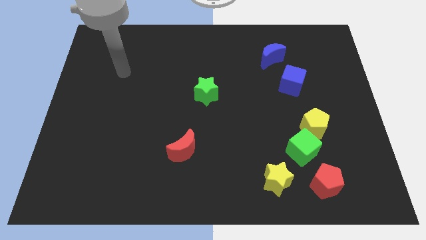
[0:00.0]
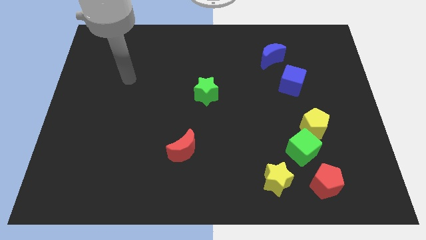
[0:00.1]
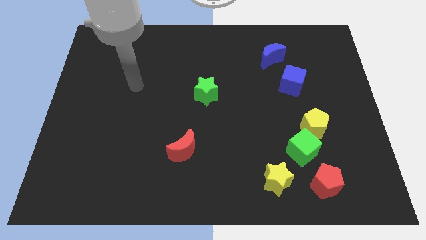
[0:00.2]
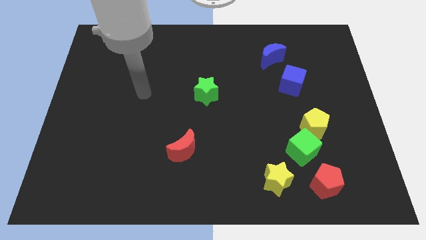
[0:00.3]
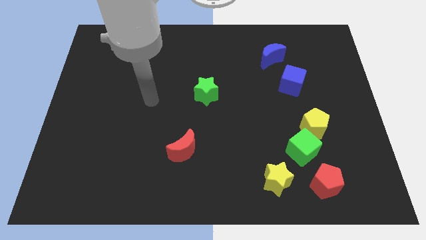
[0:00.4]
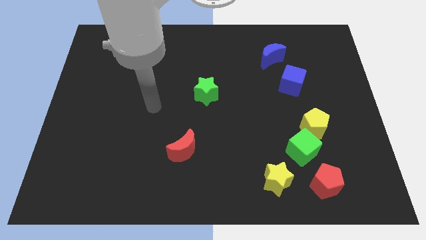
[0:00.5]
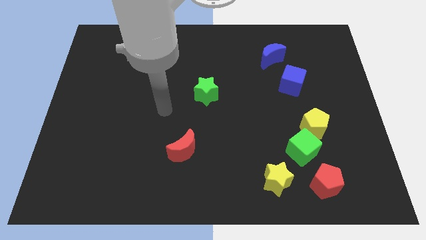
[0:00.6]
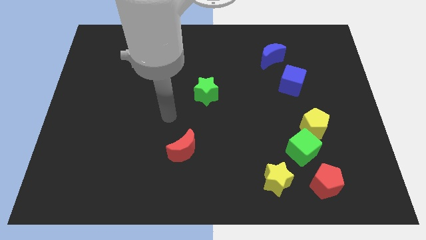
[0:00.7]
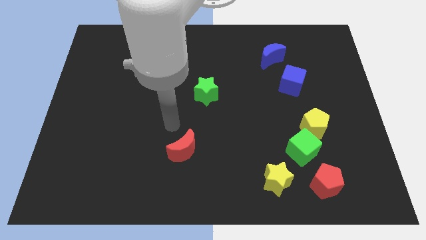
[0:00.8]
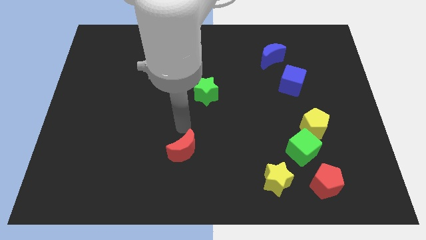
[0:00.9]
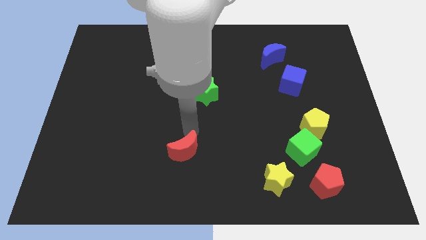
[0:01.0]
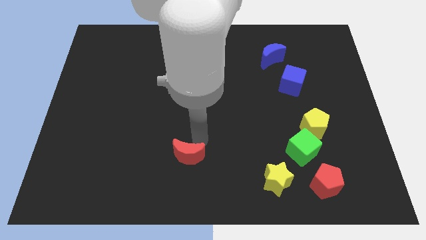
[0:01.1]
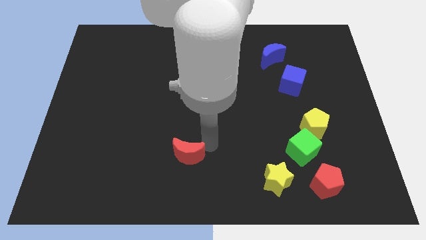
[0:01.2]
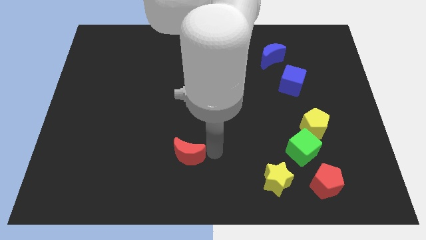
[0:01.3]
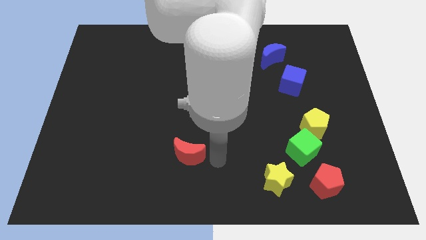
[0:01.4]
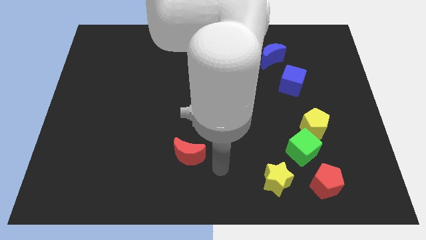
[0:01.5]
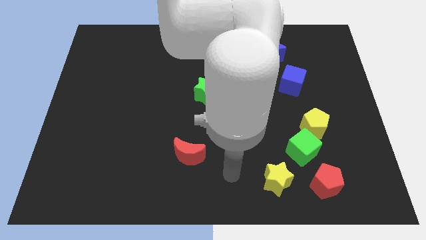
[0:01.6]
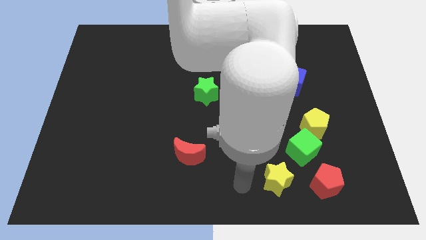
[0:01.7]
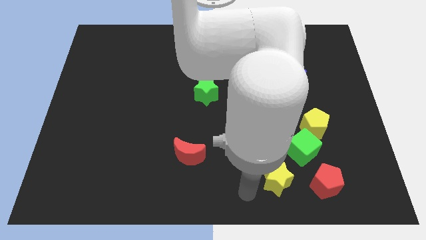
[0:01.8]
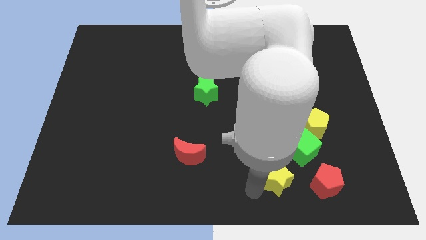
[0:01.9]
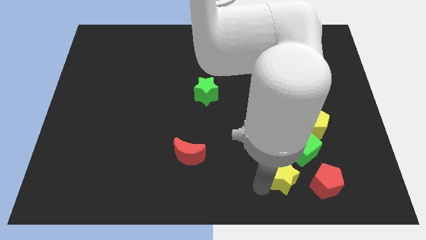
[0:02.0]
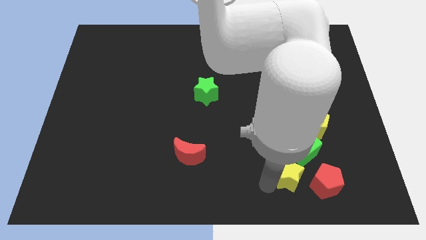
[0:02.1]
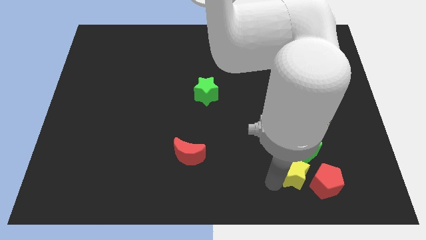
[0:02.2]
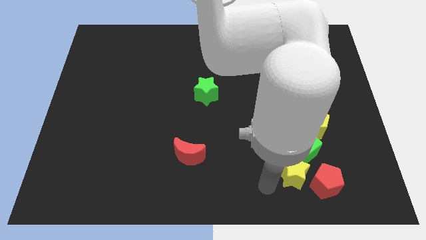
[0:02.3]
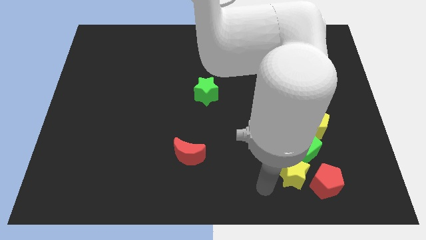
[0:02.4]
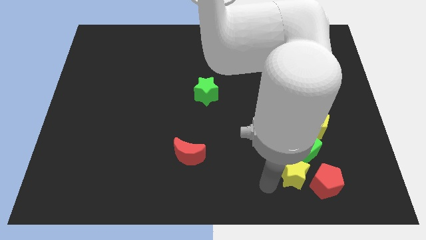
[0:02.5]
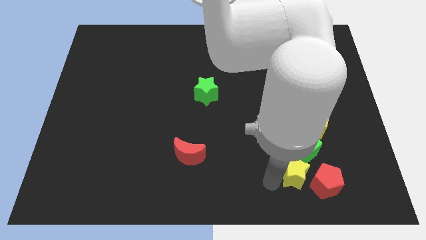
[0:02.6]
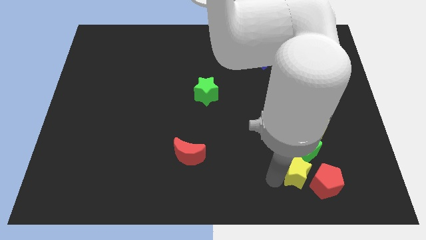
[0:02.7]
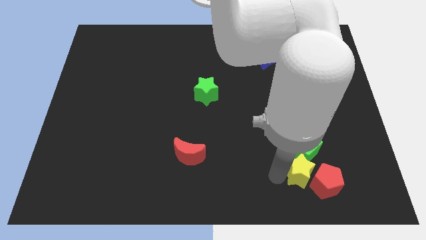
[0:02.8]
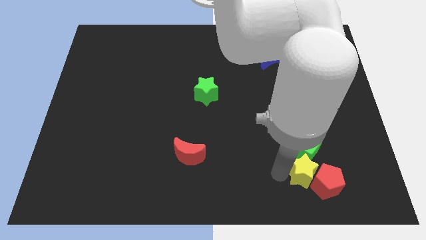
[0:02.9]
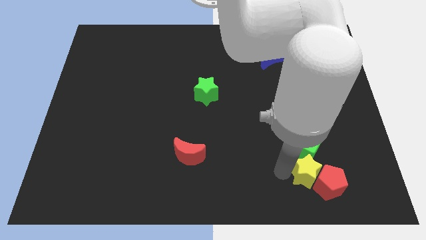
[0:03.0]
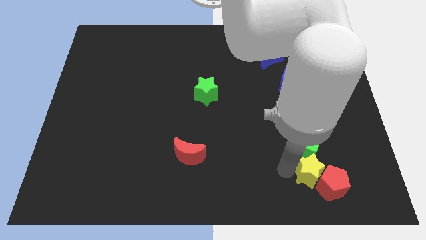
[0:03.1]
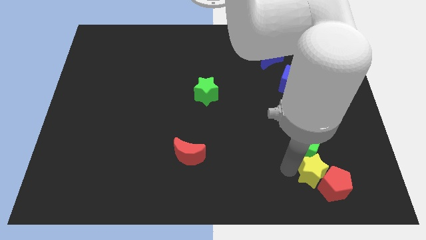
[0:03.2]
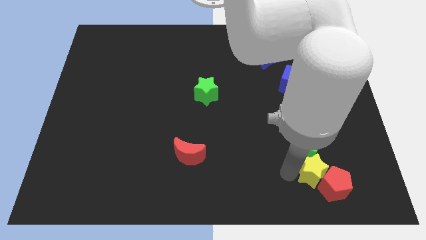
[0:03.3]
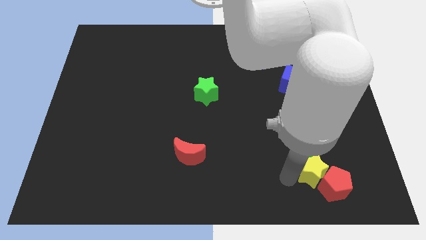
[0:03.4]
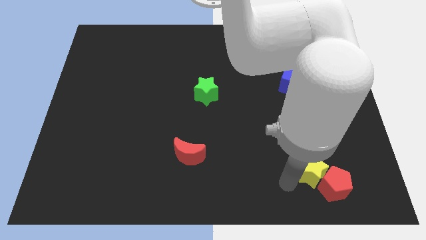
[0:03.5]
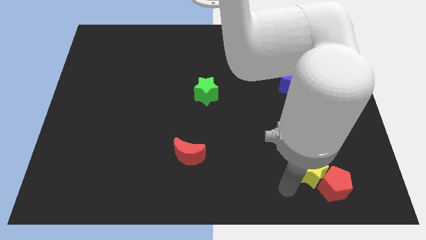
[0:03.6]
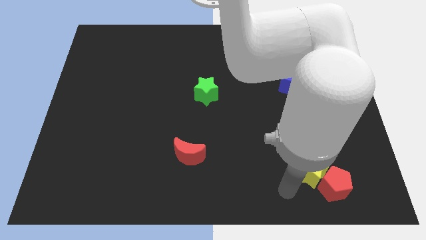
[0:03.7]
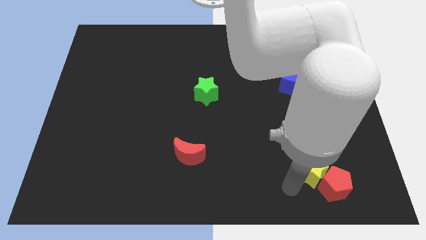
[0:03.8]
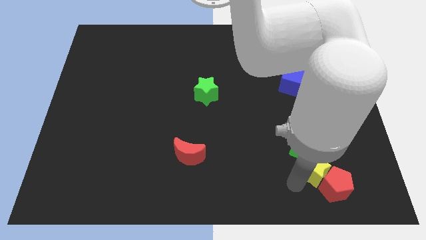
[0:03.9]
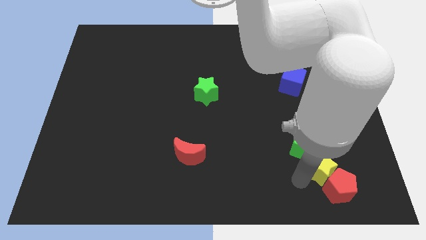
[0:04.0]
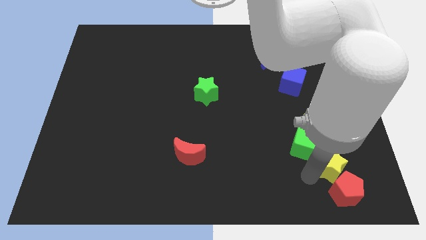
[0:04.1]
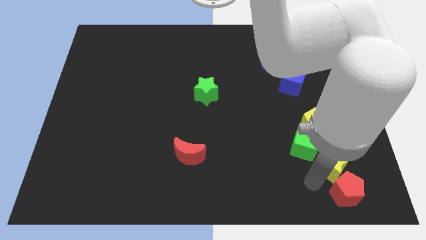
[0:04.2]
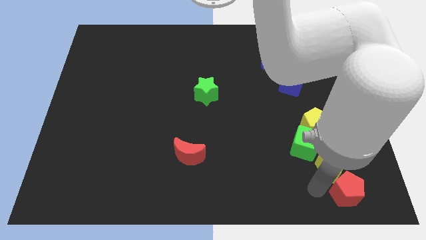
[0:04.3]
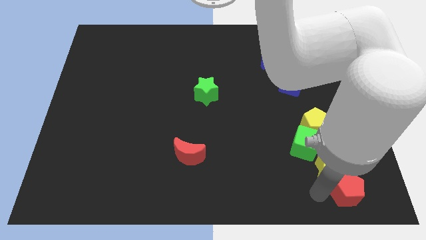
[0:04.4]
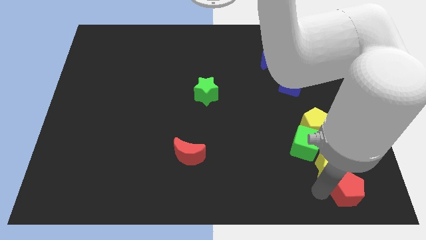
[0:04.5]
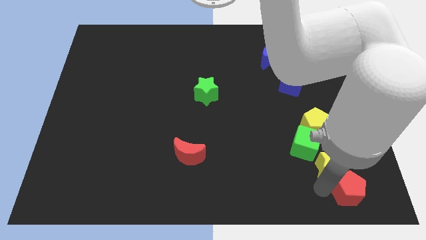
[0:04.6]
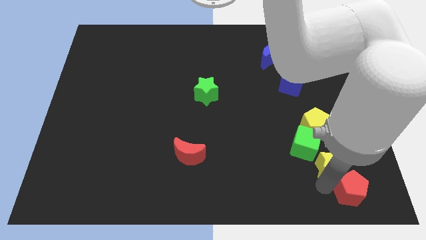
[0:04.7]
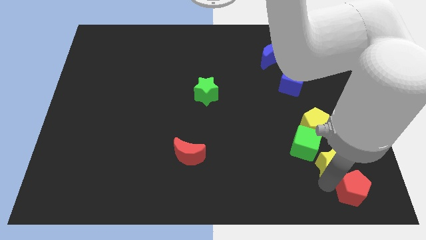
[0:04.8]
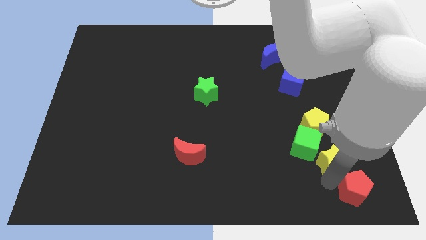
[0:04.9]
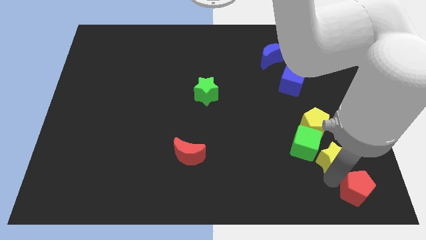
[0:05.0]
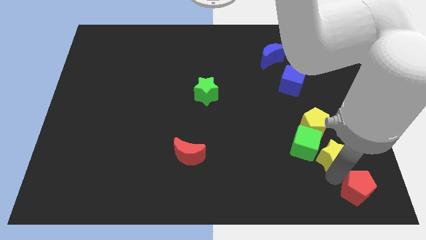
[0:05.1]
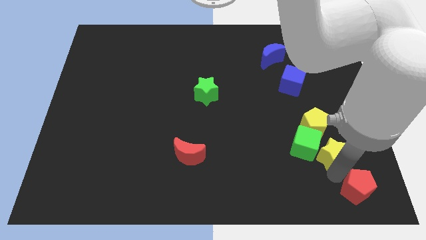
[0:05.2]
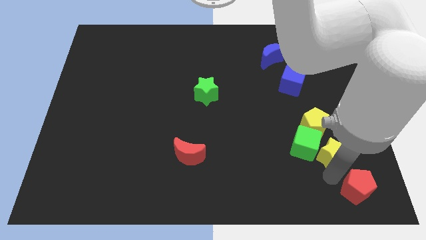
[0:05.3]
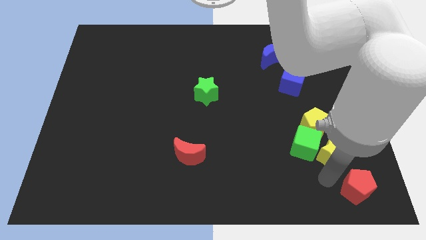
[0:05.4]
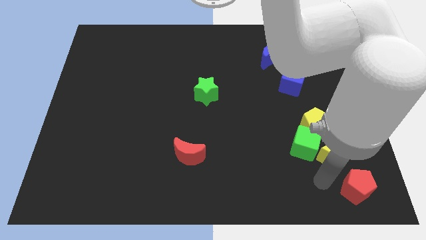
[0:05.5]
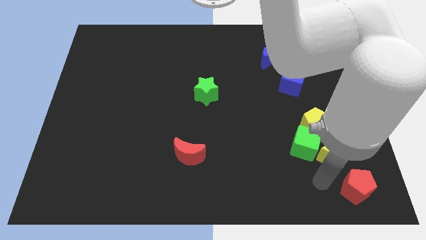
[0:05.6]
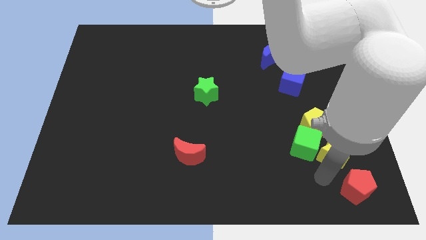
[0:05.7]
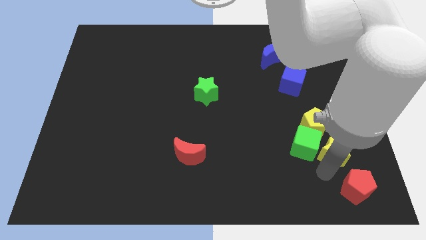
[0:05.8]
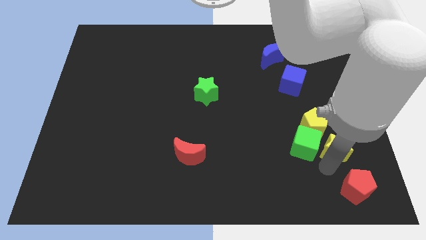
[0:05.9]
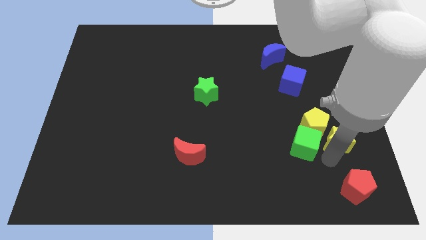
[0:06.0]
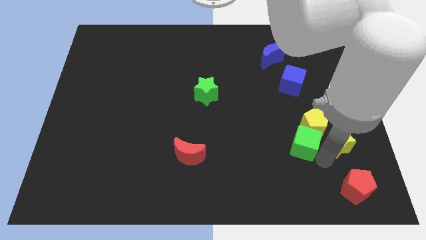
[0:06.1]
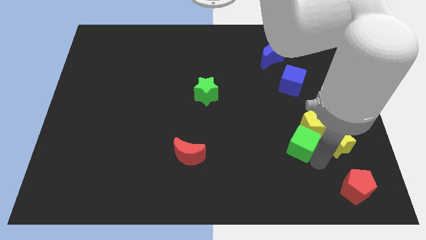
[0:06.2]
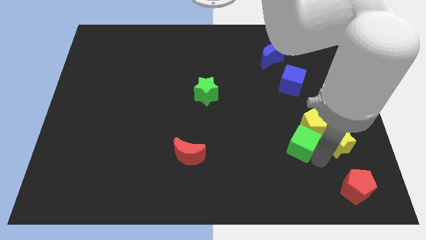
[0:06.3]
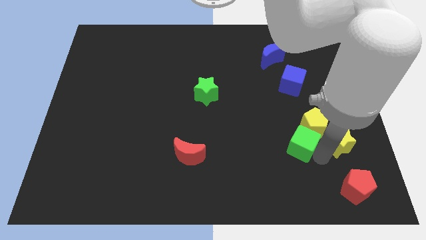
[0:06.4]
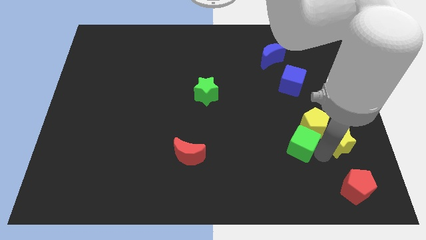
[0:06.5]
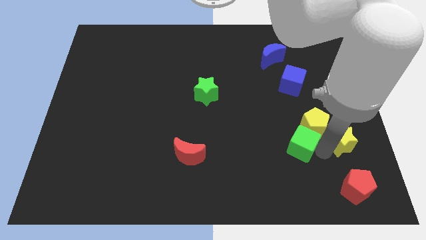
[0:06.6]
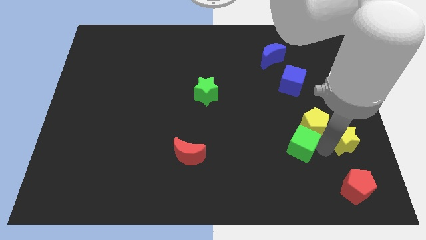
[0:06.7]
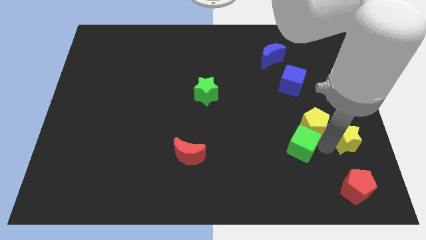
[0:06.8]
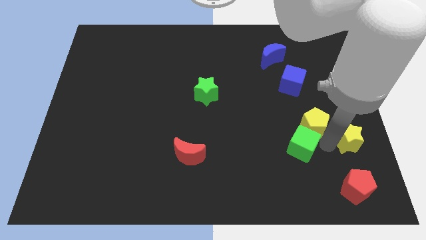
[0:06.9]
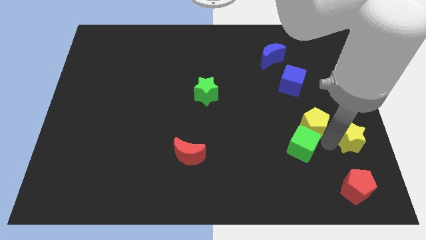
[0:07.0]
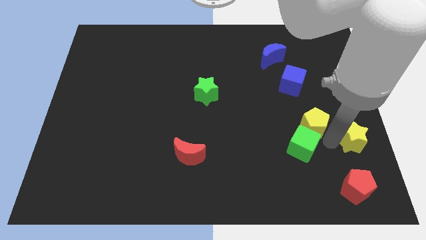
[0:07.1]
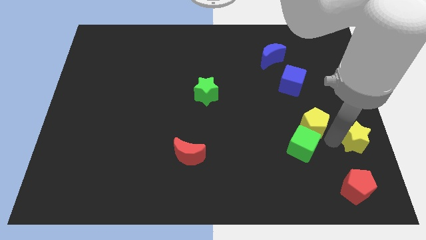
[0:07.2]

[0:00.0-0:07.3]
move the yellow star to the right side of the board
